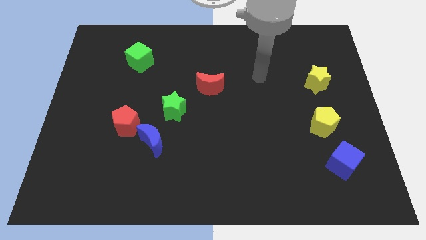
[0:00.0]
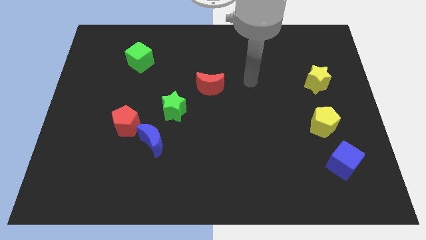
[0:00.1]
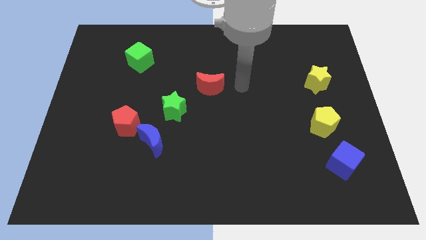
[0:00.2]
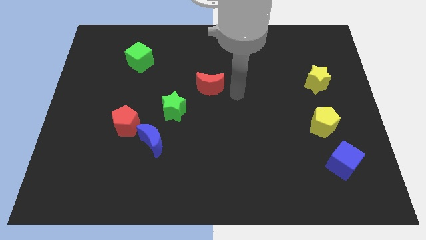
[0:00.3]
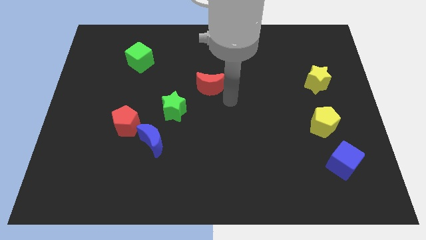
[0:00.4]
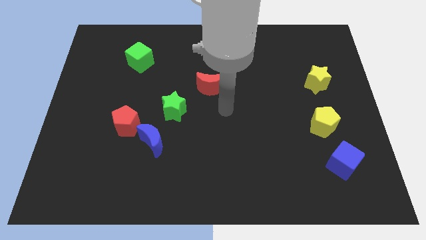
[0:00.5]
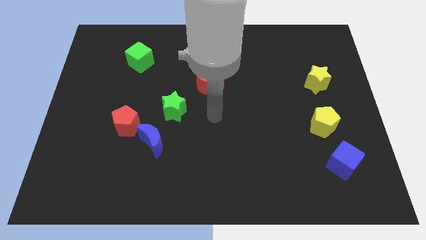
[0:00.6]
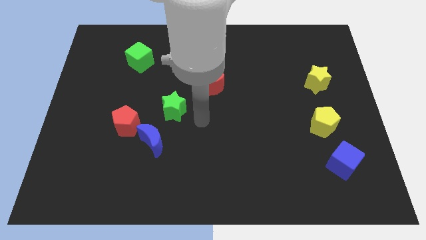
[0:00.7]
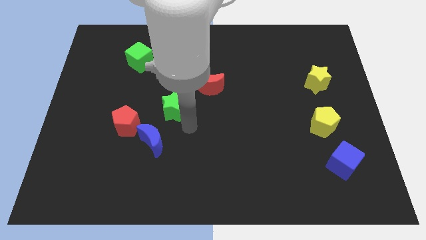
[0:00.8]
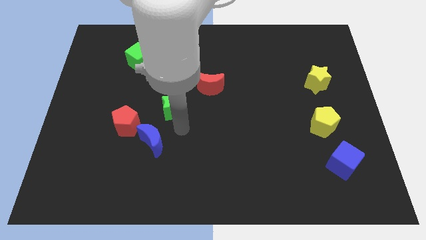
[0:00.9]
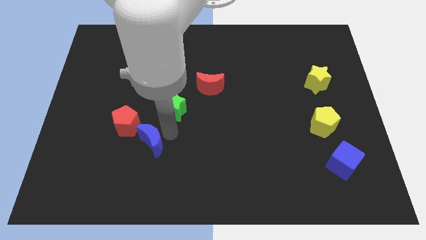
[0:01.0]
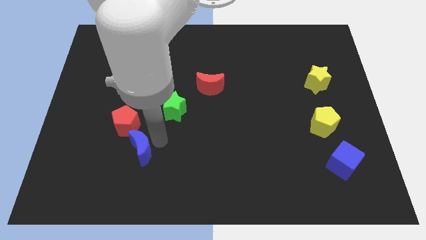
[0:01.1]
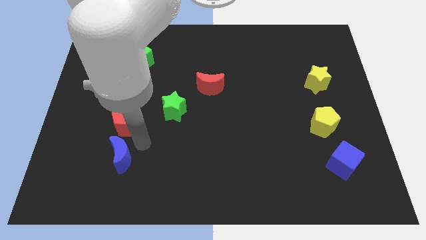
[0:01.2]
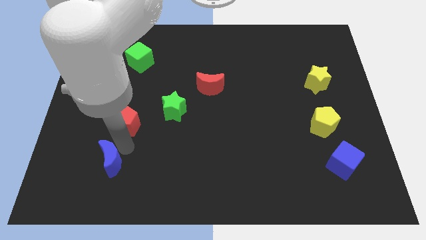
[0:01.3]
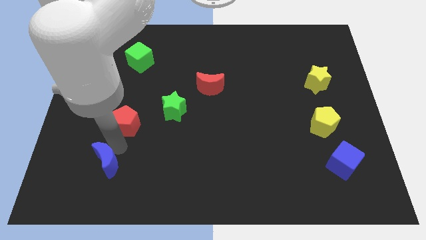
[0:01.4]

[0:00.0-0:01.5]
move the red pentagon away from the blue moon

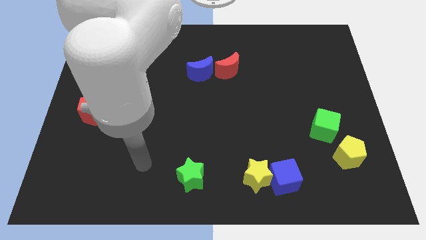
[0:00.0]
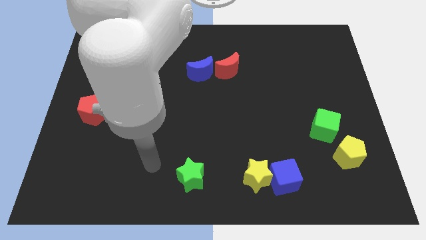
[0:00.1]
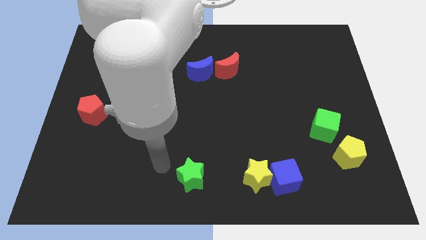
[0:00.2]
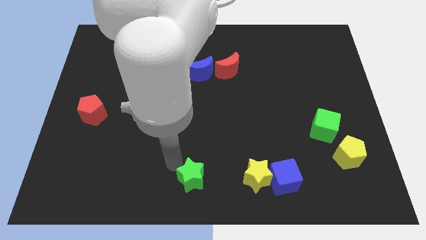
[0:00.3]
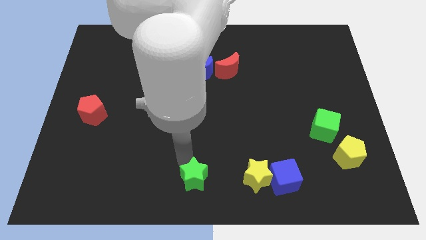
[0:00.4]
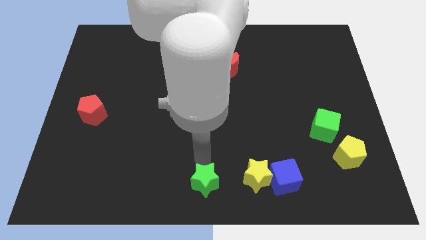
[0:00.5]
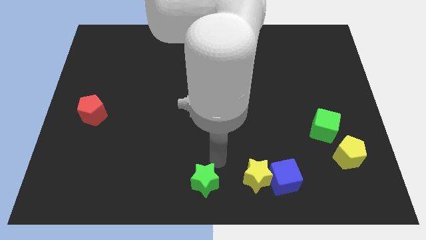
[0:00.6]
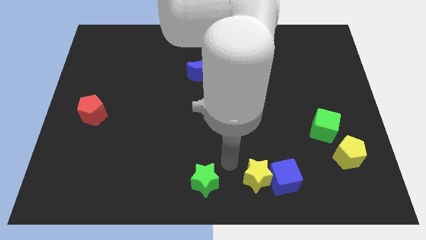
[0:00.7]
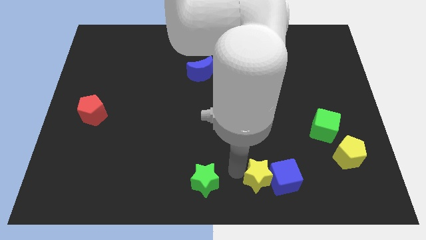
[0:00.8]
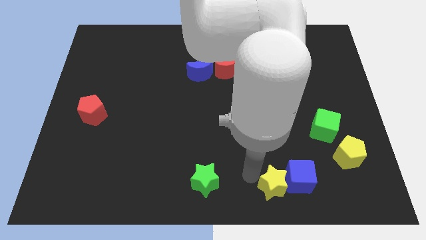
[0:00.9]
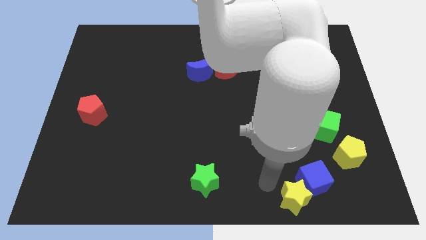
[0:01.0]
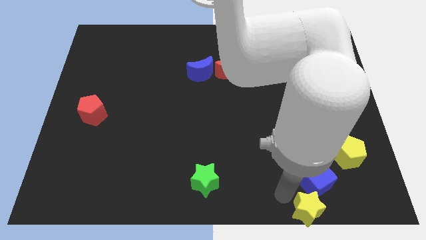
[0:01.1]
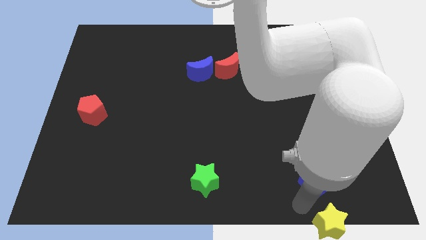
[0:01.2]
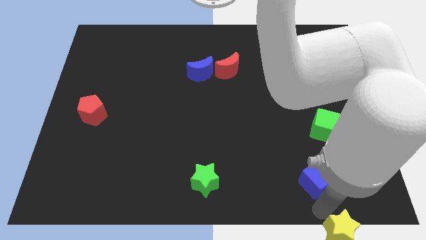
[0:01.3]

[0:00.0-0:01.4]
move the blue cube away from the yellow star

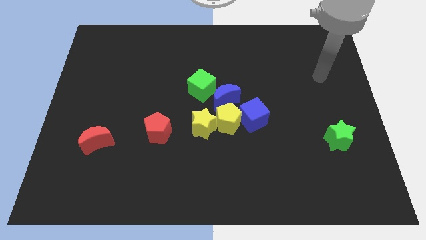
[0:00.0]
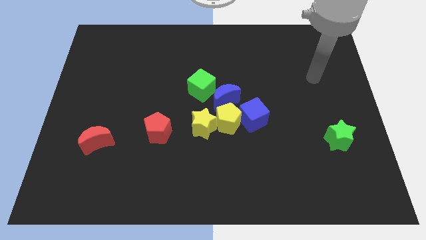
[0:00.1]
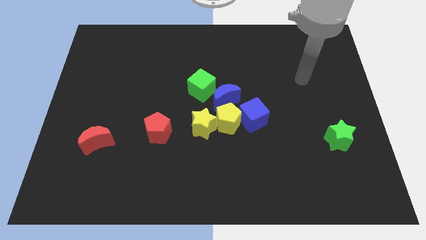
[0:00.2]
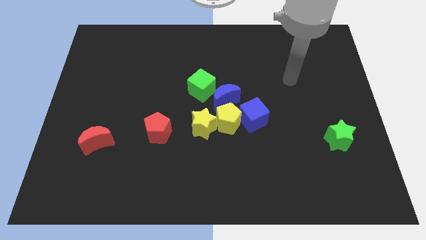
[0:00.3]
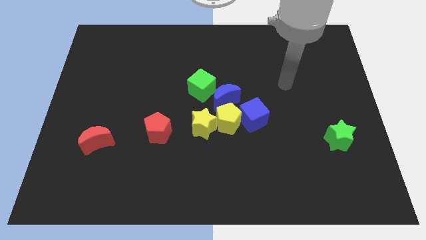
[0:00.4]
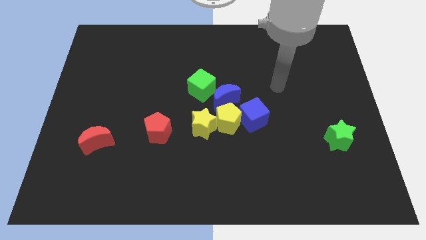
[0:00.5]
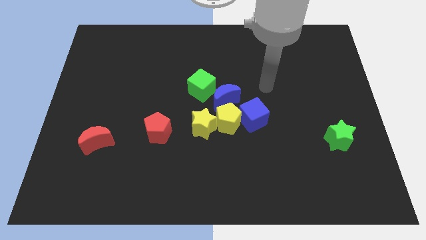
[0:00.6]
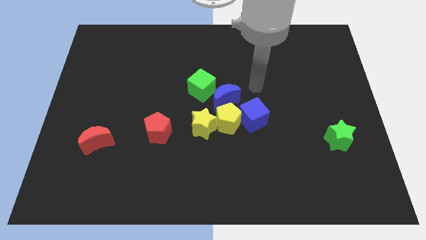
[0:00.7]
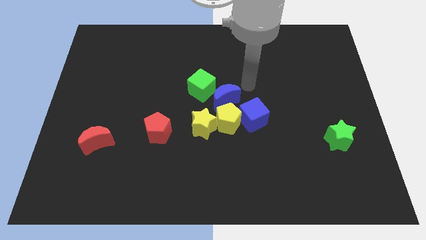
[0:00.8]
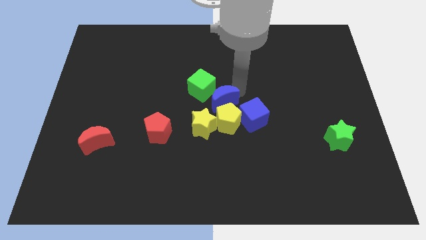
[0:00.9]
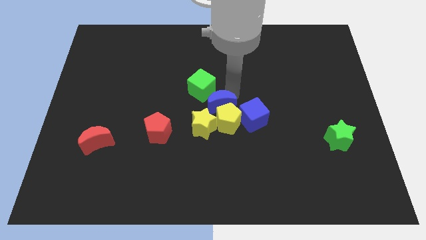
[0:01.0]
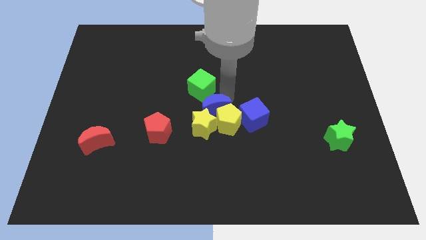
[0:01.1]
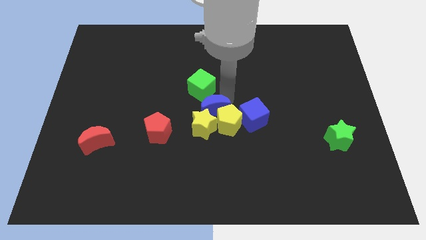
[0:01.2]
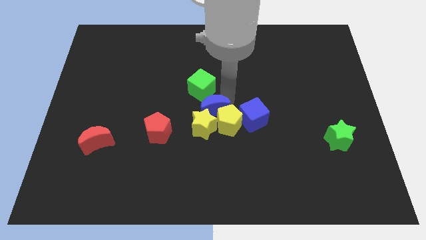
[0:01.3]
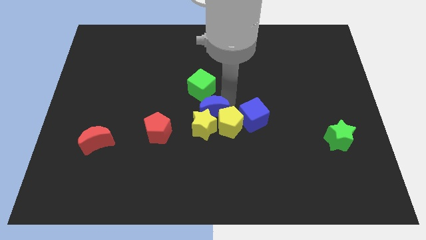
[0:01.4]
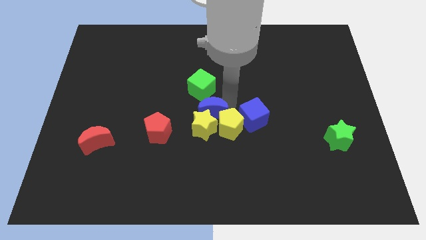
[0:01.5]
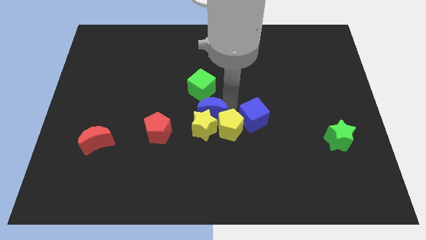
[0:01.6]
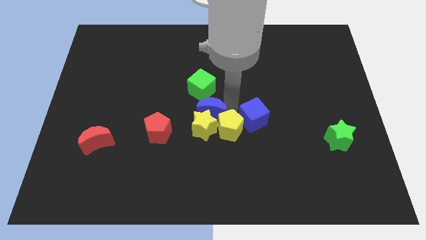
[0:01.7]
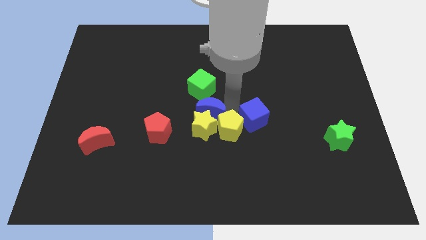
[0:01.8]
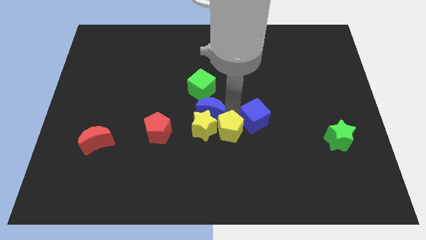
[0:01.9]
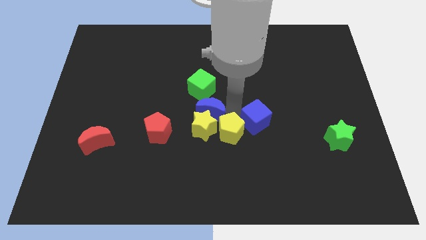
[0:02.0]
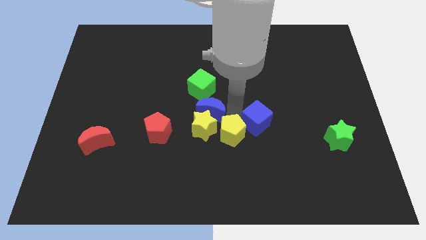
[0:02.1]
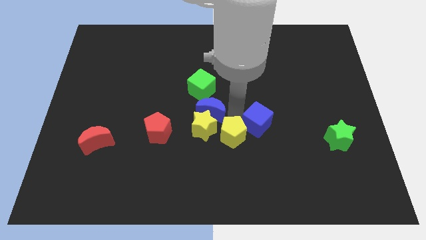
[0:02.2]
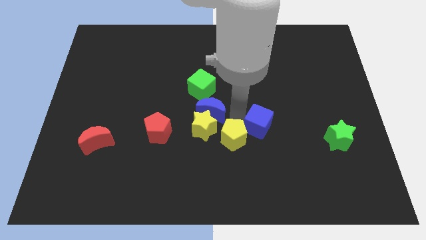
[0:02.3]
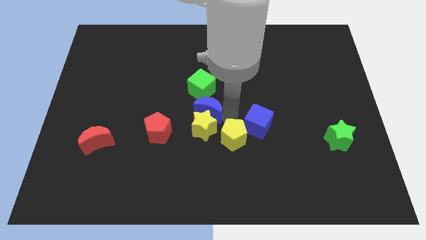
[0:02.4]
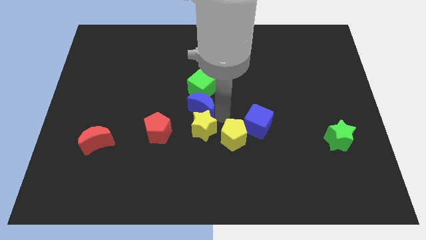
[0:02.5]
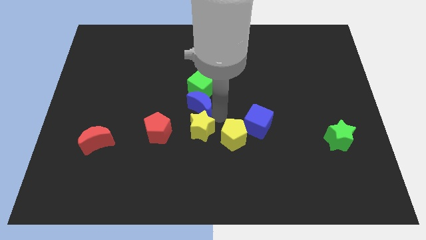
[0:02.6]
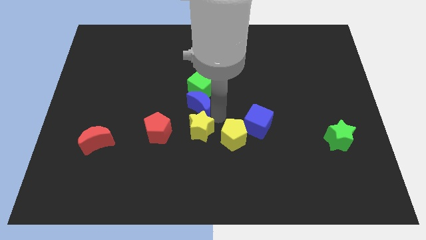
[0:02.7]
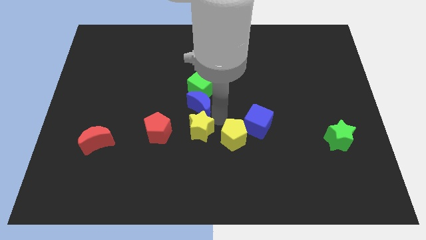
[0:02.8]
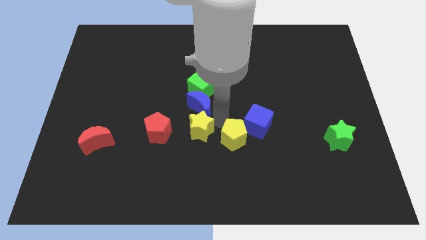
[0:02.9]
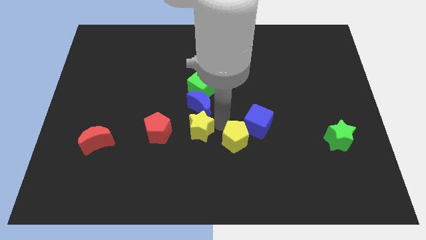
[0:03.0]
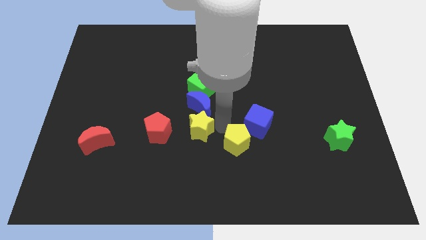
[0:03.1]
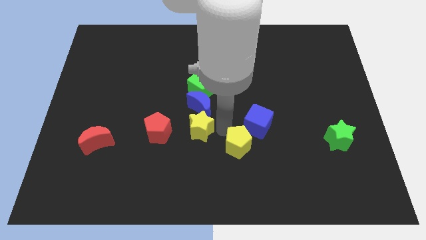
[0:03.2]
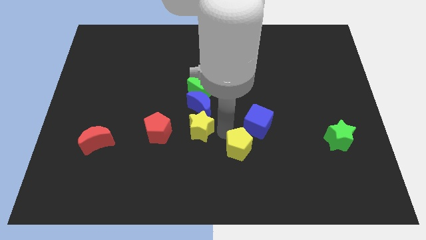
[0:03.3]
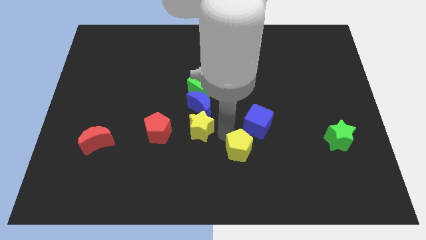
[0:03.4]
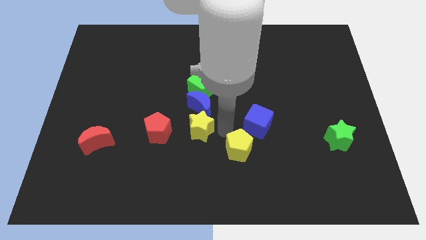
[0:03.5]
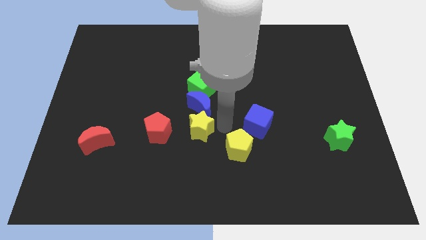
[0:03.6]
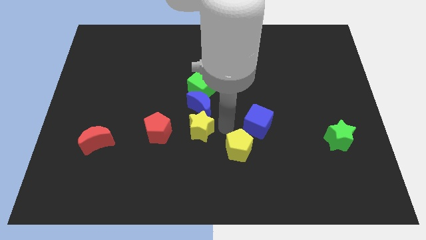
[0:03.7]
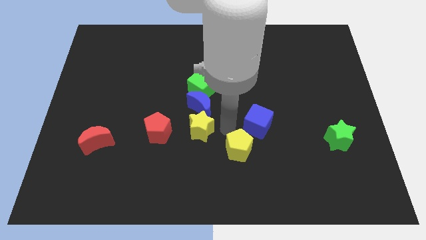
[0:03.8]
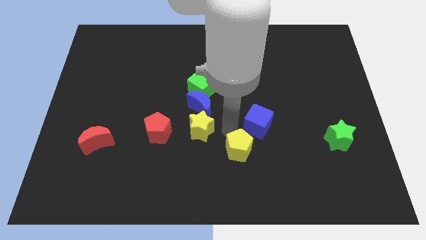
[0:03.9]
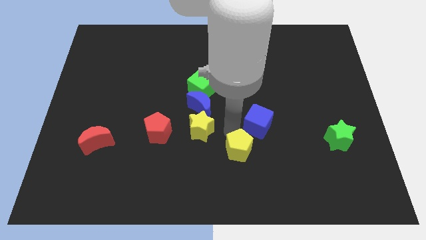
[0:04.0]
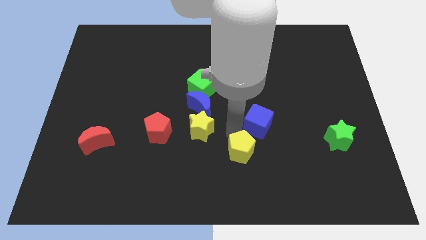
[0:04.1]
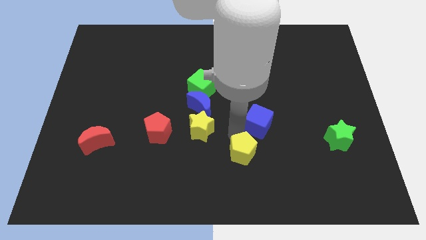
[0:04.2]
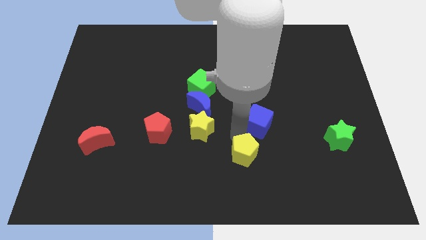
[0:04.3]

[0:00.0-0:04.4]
separate the yellow pentagon from the blue cube, yellow star, and blue moon

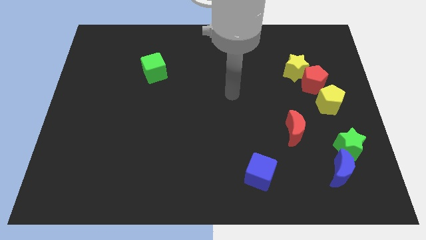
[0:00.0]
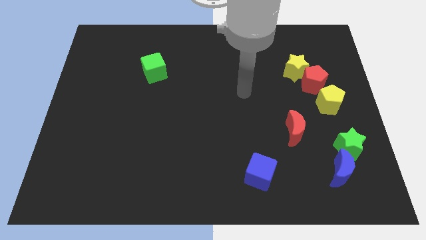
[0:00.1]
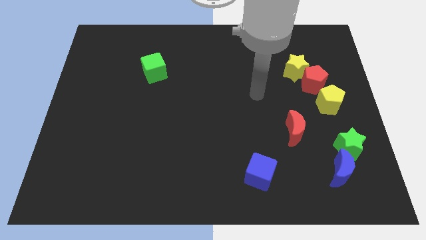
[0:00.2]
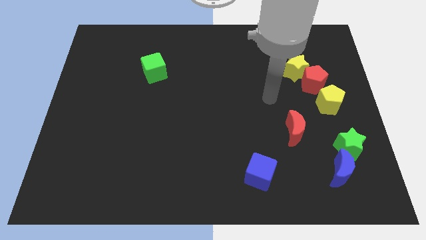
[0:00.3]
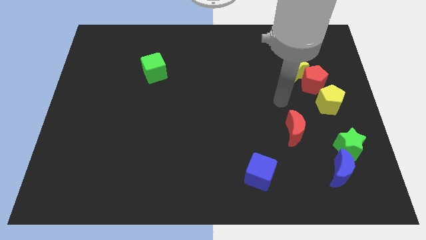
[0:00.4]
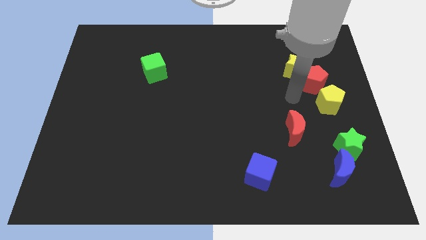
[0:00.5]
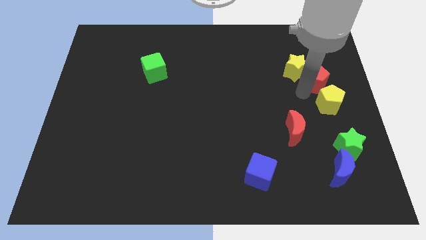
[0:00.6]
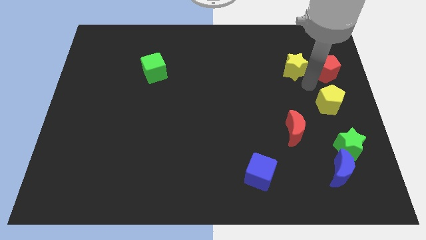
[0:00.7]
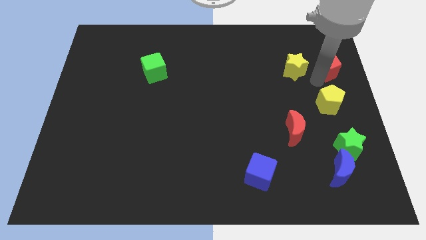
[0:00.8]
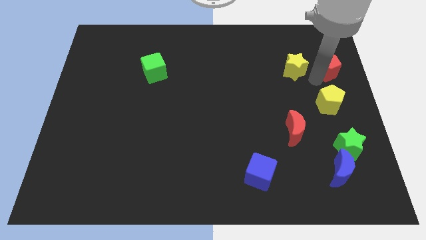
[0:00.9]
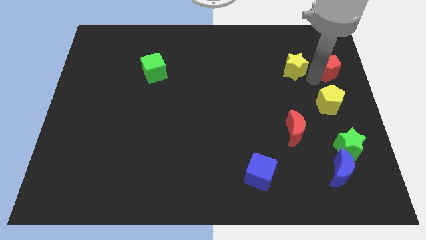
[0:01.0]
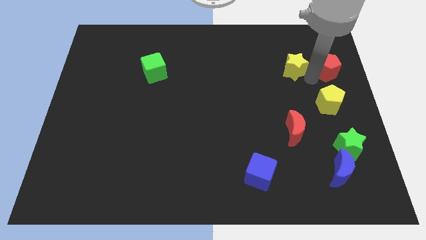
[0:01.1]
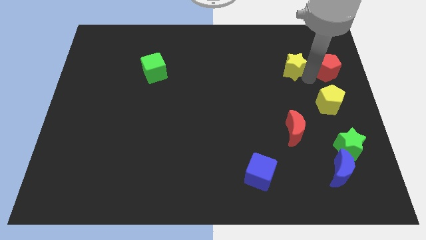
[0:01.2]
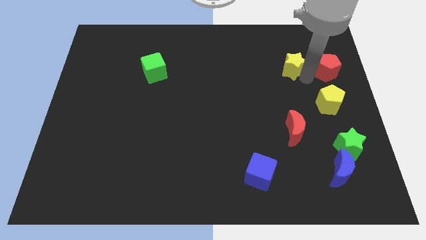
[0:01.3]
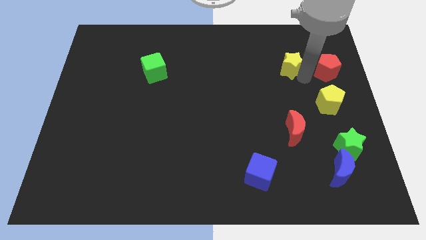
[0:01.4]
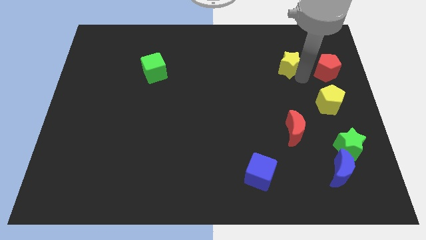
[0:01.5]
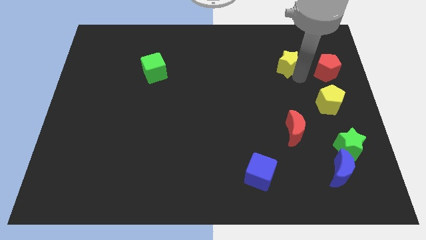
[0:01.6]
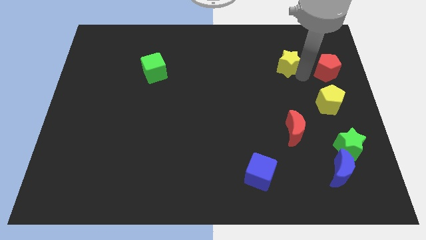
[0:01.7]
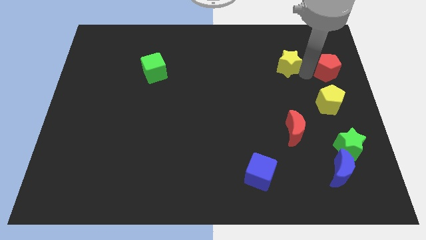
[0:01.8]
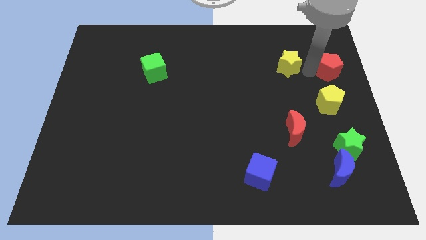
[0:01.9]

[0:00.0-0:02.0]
move the yellow star away from the red pentagon

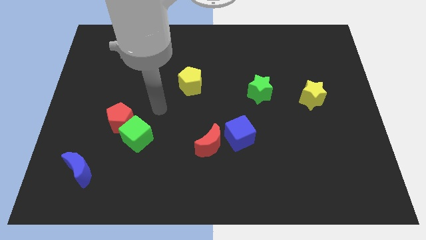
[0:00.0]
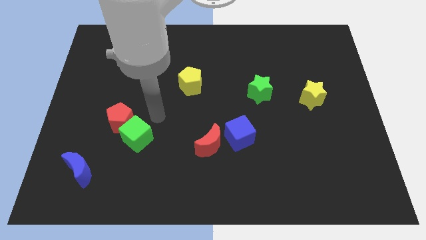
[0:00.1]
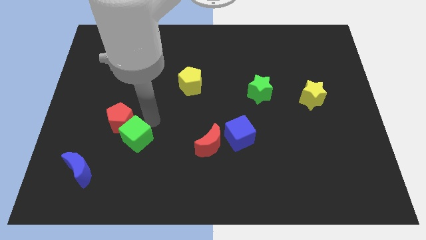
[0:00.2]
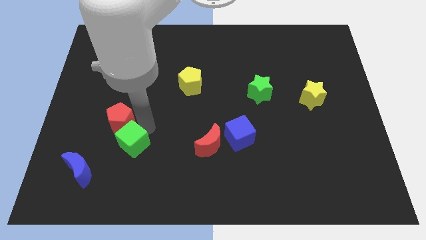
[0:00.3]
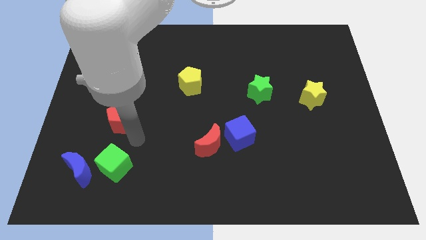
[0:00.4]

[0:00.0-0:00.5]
separate the red pentagon from the green cube
